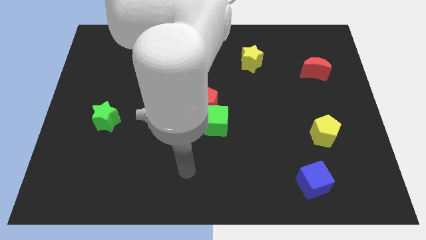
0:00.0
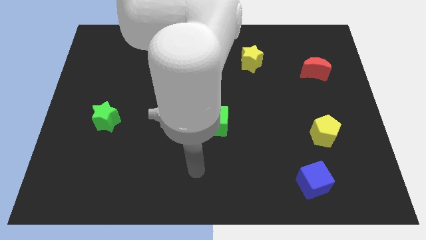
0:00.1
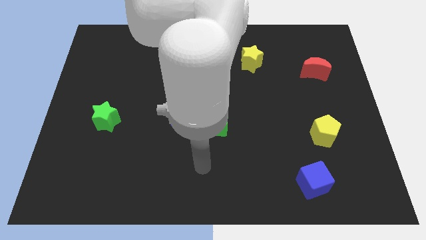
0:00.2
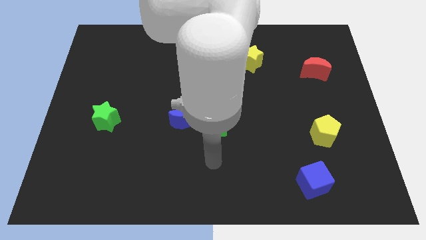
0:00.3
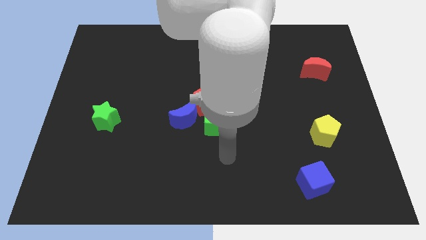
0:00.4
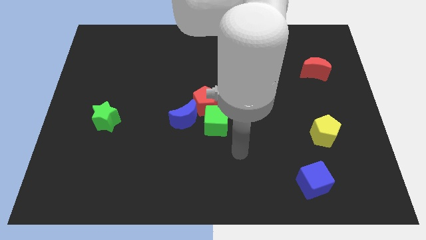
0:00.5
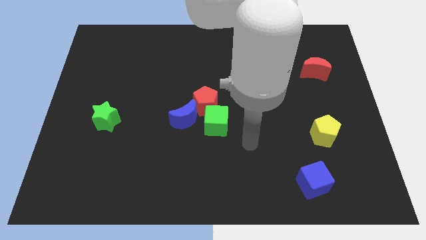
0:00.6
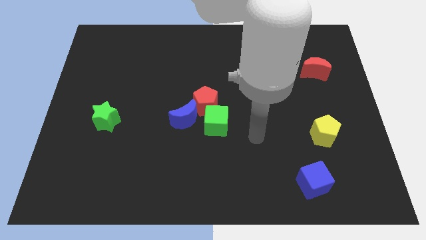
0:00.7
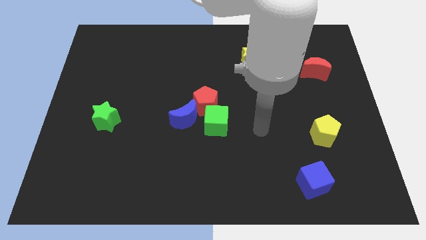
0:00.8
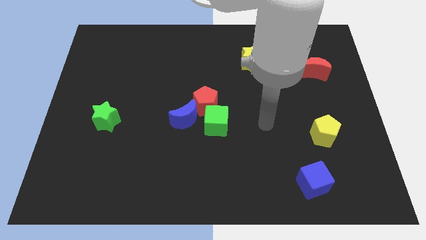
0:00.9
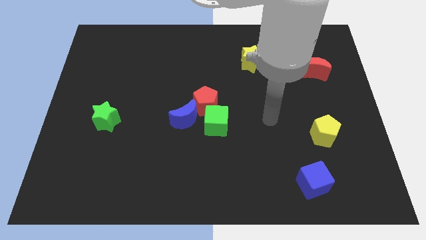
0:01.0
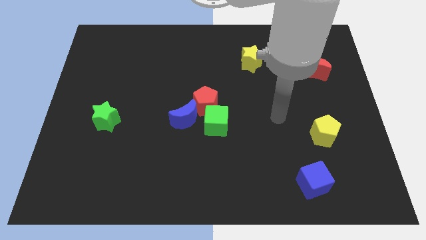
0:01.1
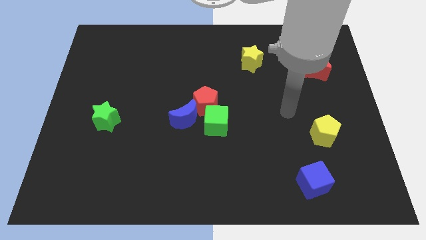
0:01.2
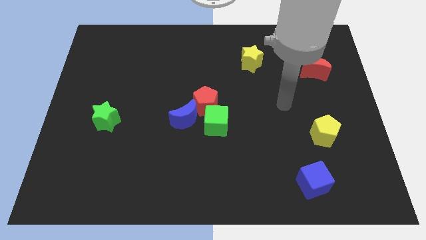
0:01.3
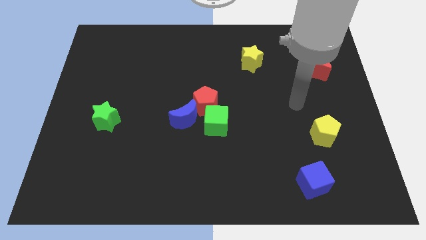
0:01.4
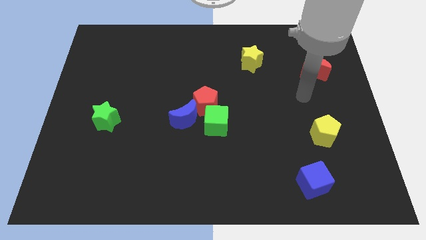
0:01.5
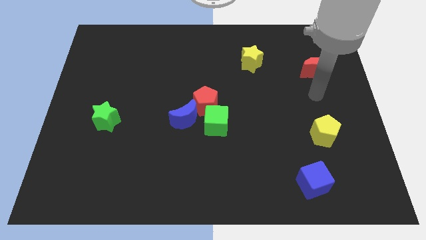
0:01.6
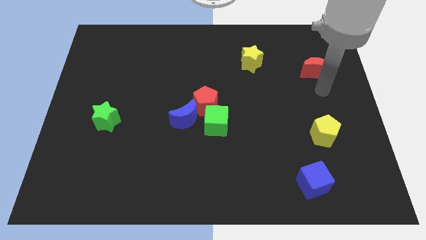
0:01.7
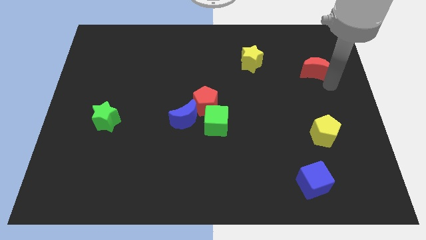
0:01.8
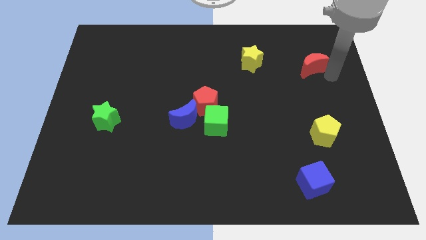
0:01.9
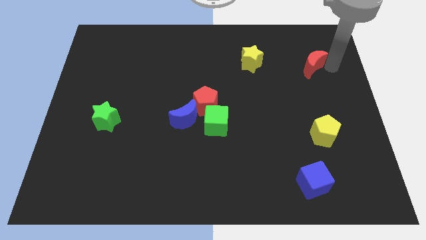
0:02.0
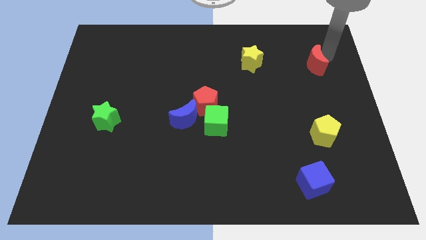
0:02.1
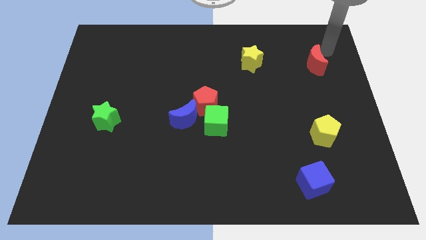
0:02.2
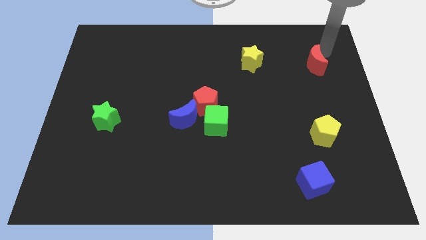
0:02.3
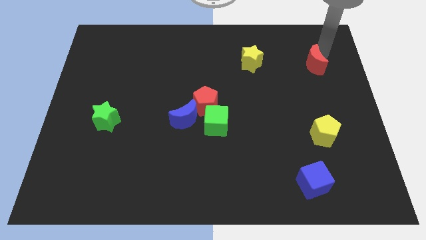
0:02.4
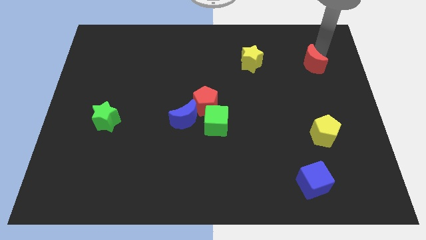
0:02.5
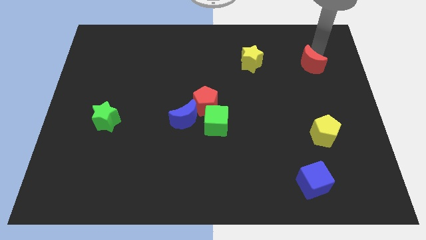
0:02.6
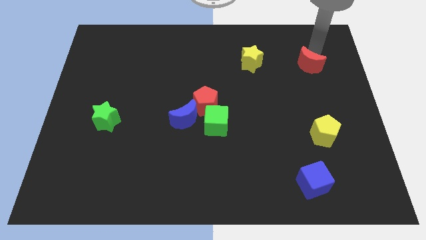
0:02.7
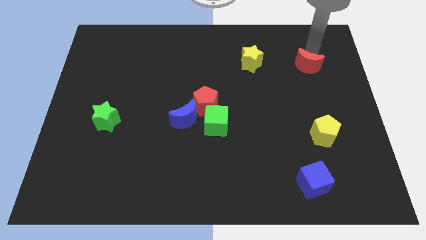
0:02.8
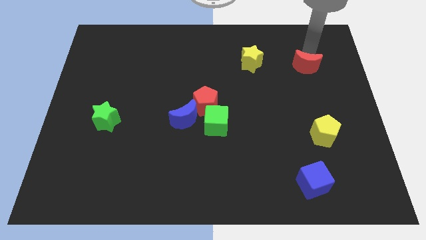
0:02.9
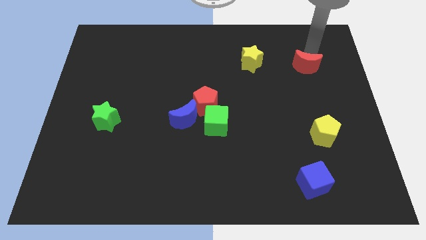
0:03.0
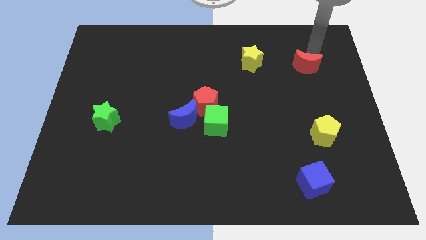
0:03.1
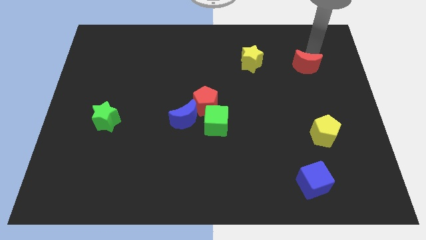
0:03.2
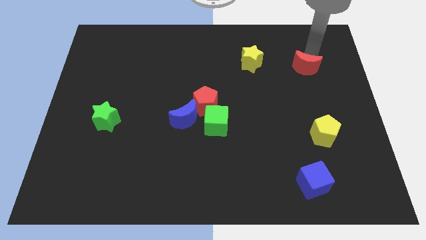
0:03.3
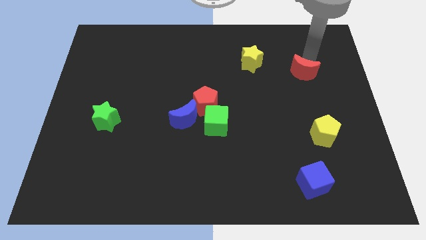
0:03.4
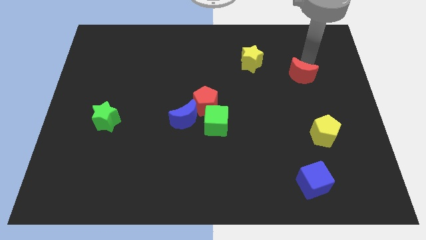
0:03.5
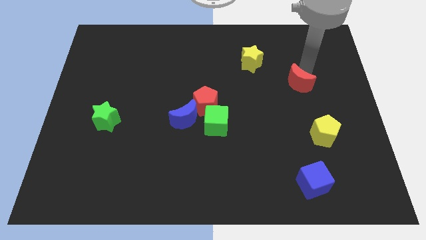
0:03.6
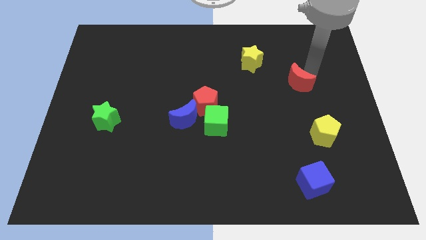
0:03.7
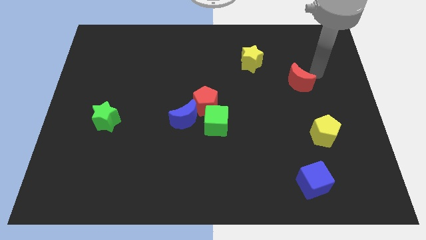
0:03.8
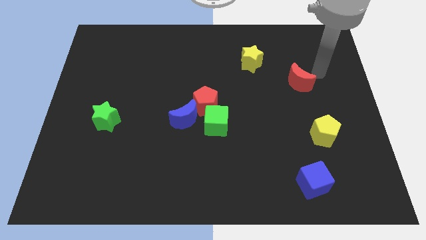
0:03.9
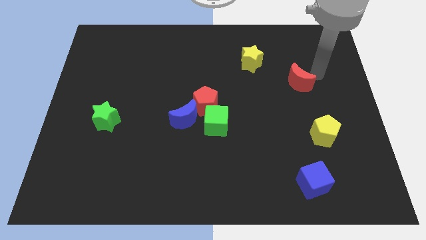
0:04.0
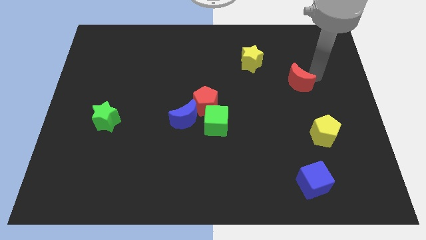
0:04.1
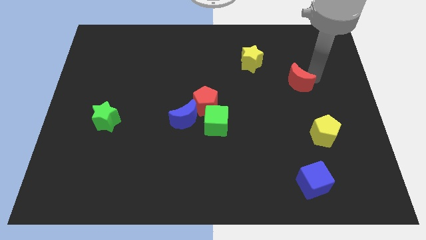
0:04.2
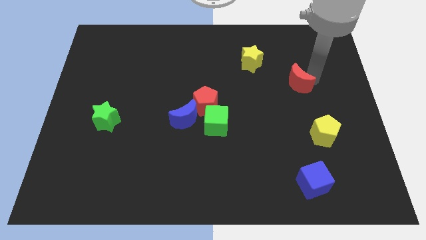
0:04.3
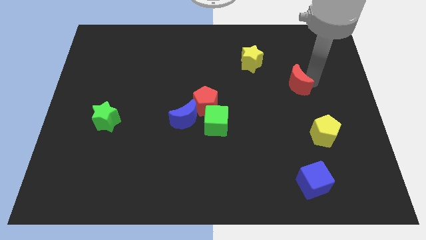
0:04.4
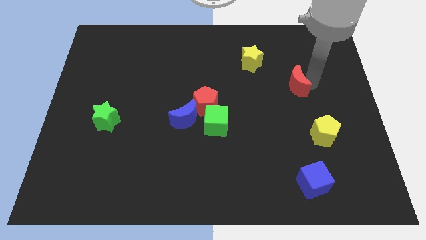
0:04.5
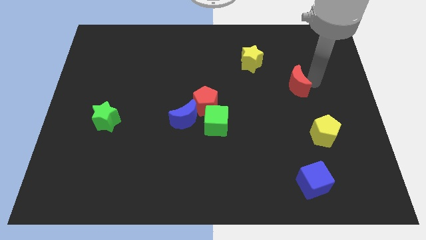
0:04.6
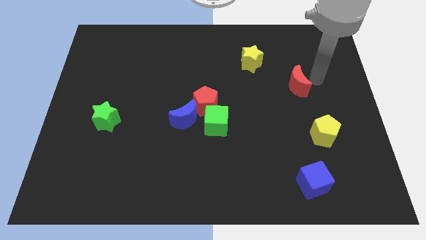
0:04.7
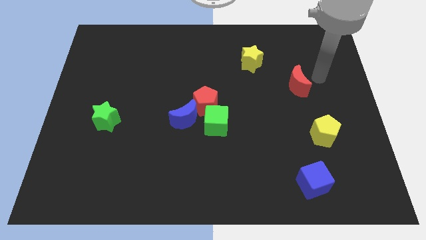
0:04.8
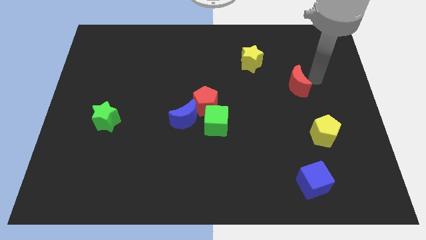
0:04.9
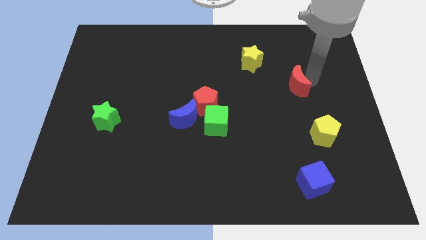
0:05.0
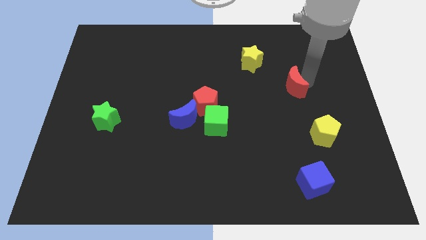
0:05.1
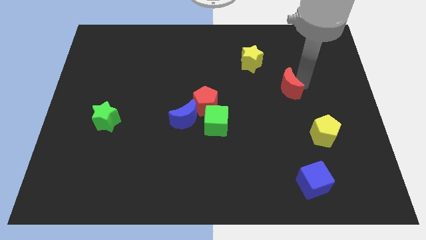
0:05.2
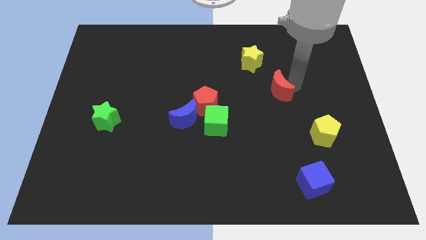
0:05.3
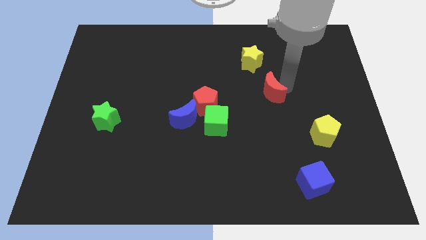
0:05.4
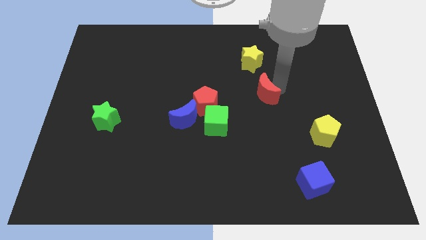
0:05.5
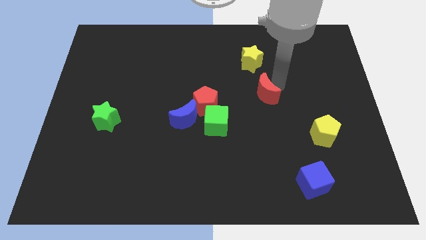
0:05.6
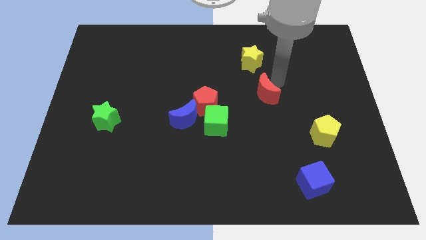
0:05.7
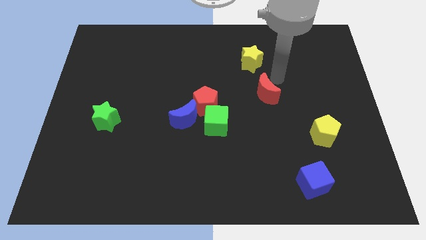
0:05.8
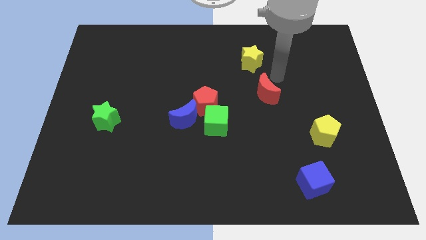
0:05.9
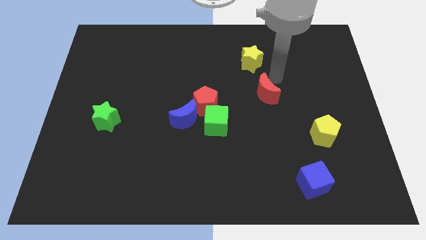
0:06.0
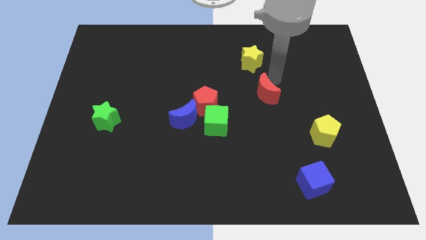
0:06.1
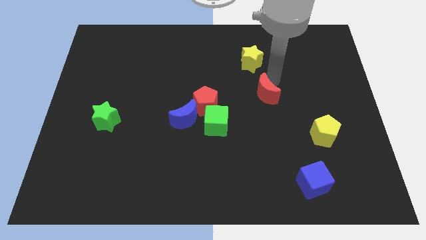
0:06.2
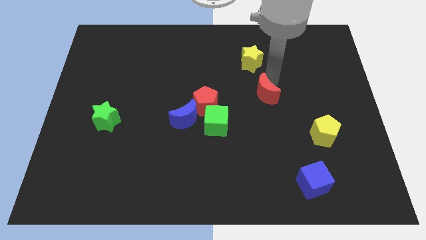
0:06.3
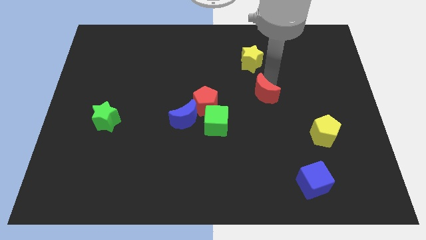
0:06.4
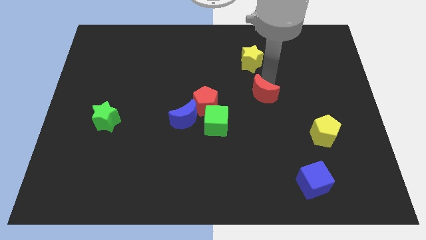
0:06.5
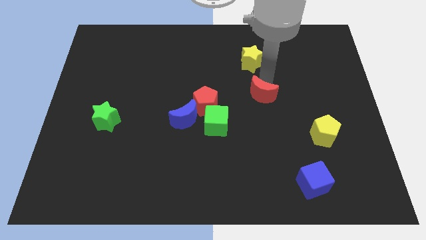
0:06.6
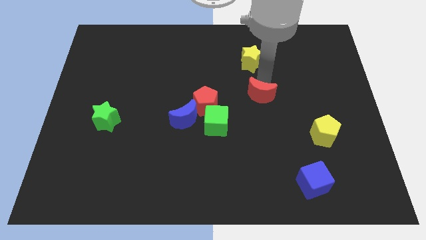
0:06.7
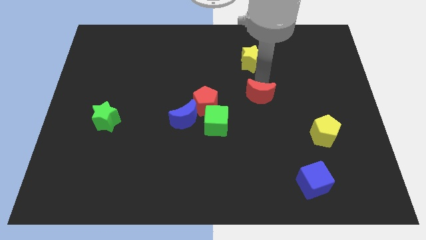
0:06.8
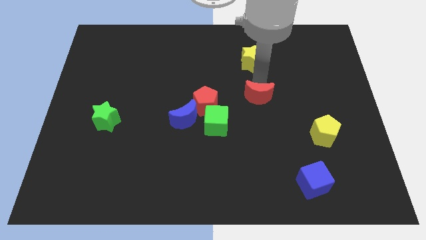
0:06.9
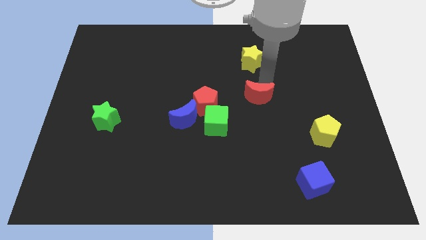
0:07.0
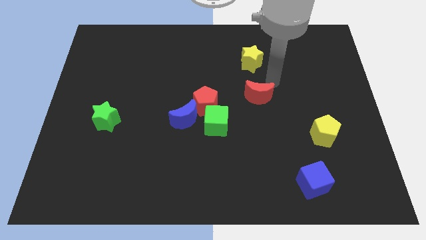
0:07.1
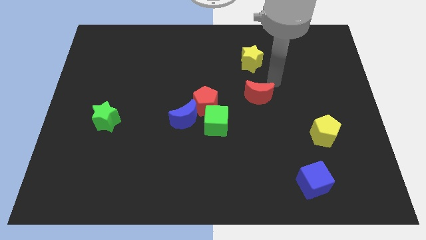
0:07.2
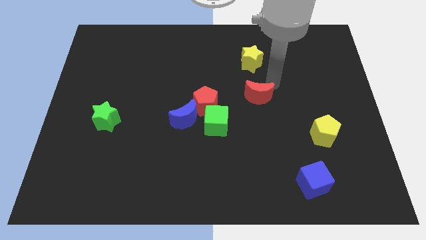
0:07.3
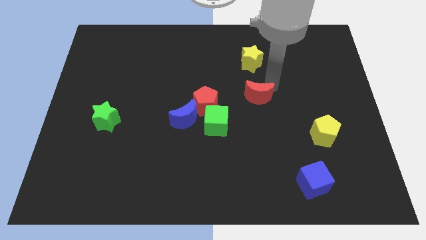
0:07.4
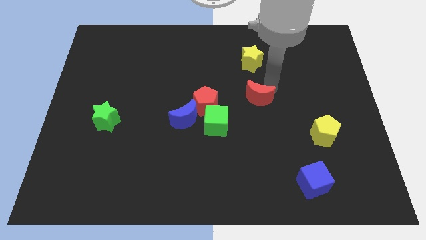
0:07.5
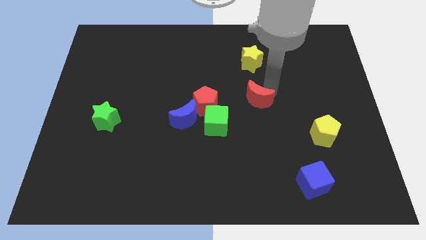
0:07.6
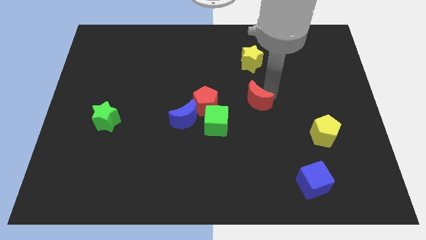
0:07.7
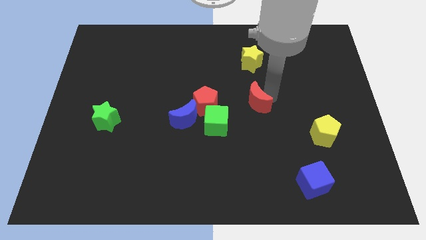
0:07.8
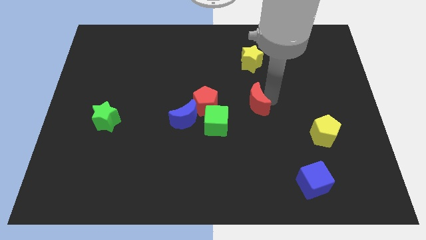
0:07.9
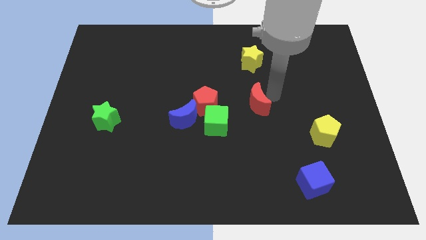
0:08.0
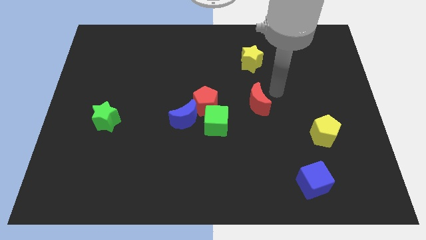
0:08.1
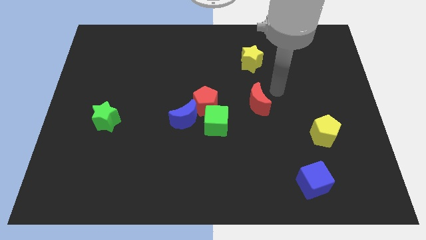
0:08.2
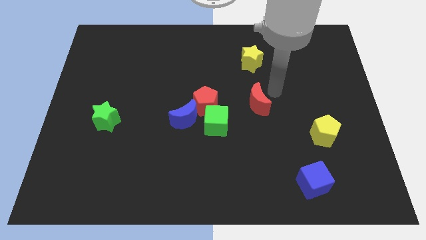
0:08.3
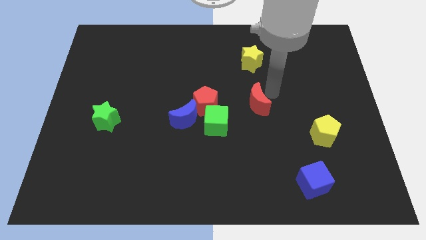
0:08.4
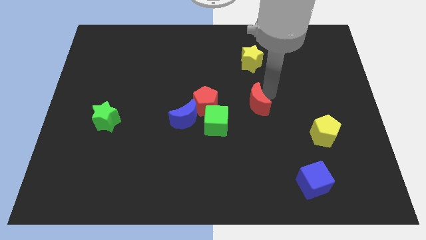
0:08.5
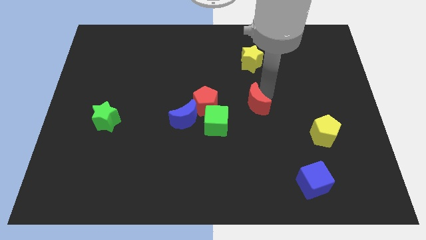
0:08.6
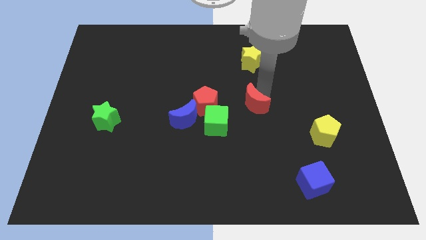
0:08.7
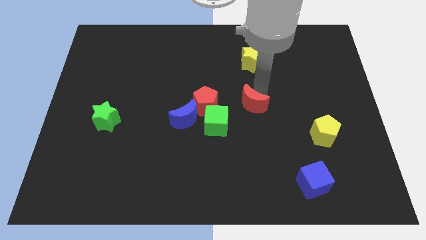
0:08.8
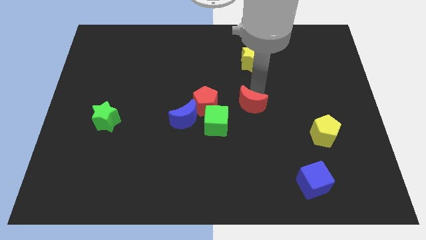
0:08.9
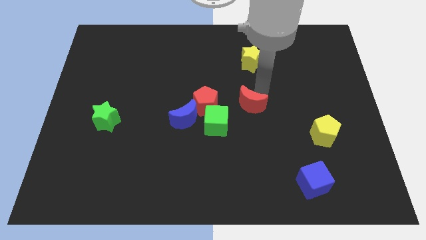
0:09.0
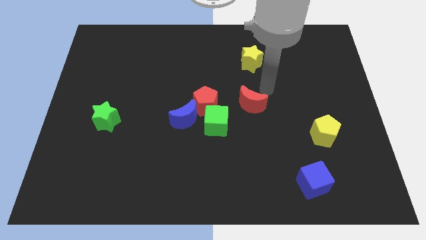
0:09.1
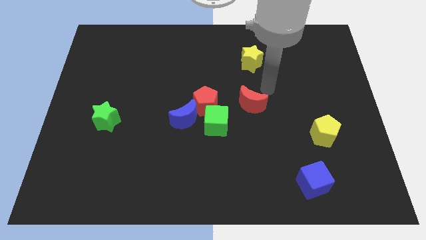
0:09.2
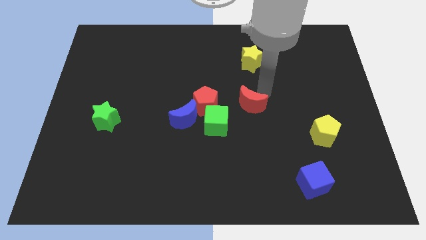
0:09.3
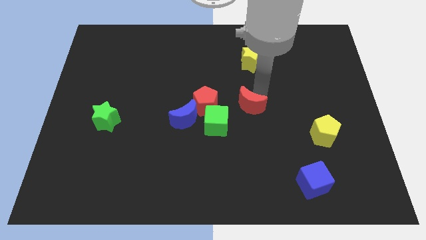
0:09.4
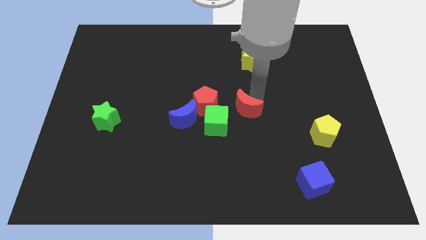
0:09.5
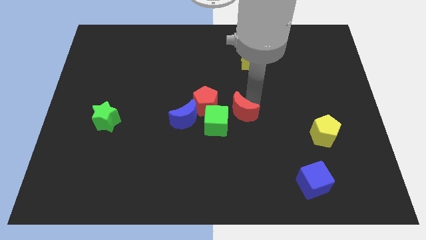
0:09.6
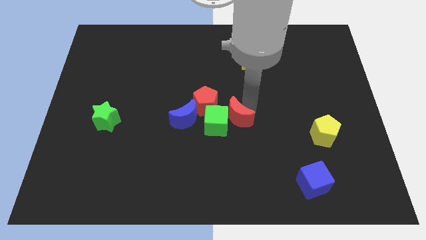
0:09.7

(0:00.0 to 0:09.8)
push the red moon towards the green cube
